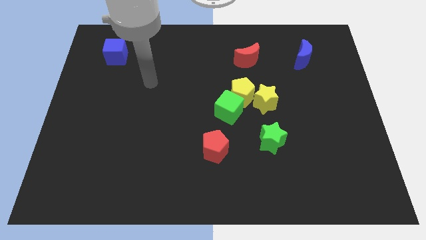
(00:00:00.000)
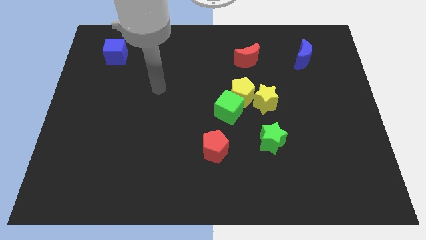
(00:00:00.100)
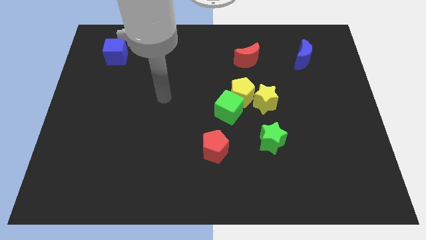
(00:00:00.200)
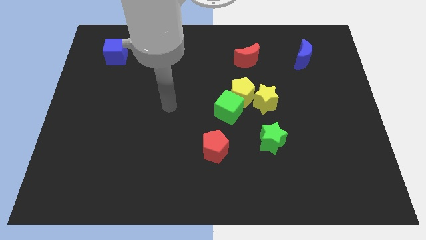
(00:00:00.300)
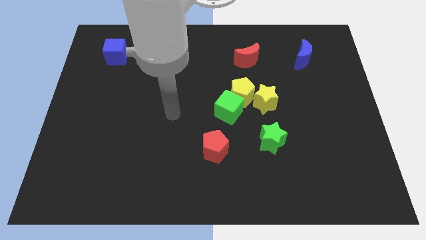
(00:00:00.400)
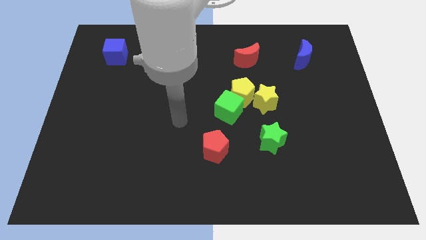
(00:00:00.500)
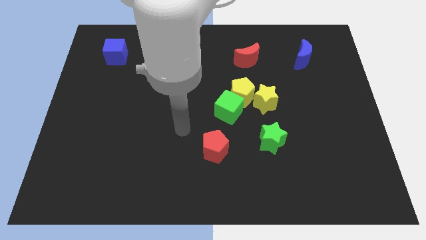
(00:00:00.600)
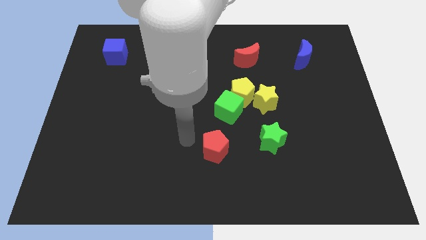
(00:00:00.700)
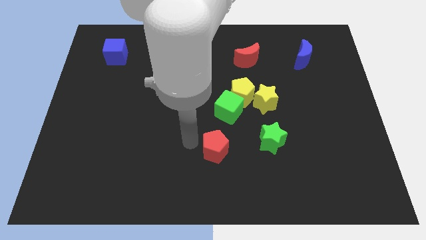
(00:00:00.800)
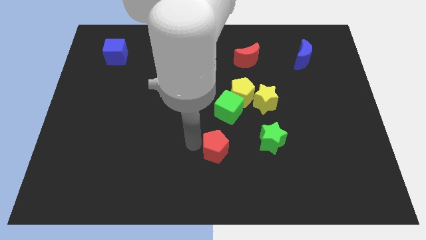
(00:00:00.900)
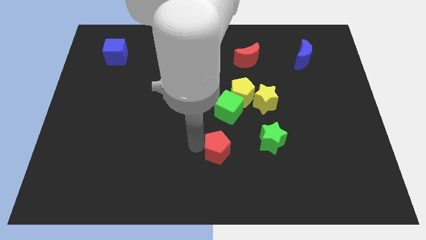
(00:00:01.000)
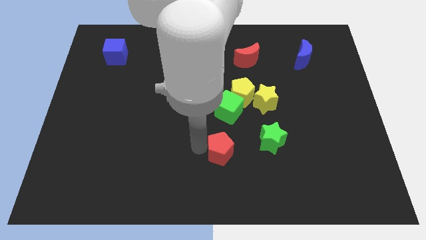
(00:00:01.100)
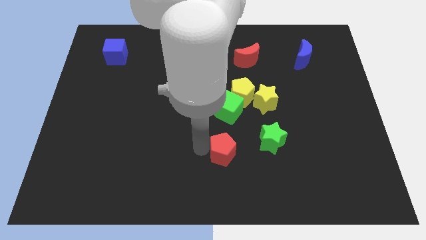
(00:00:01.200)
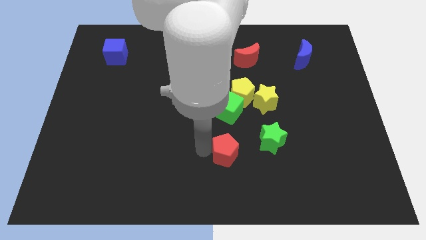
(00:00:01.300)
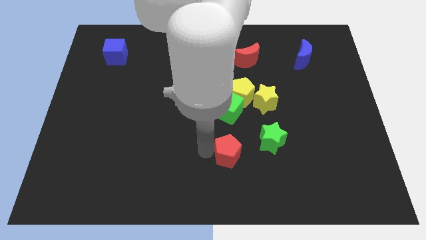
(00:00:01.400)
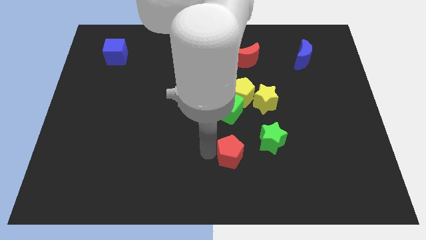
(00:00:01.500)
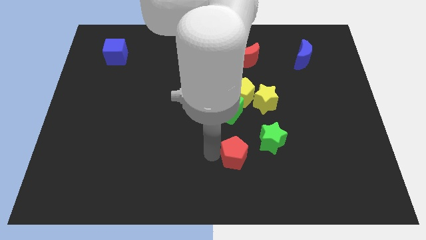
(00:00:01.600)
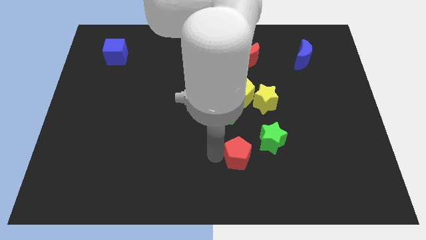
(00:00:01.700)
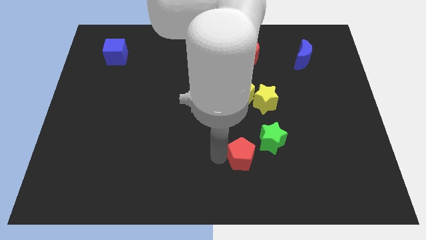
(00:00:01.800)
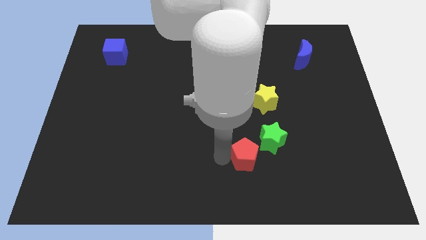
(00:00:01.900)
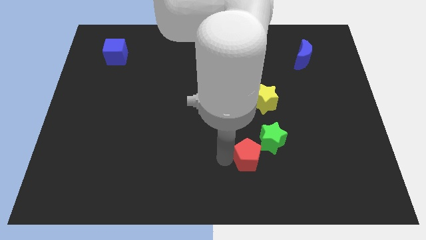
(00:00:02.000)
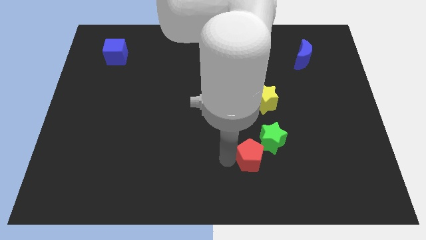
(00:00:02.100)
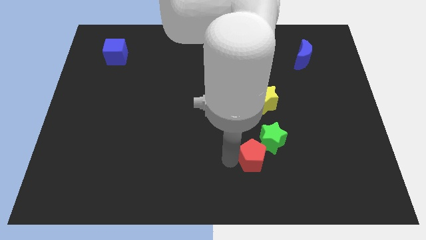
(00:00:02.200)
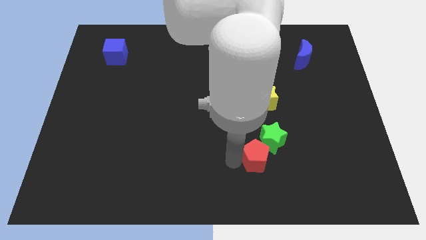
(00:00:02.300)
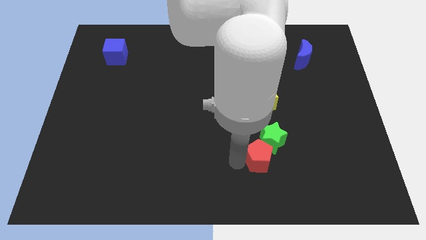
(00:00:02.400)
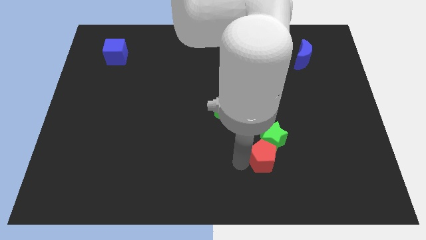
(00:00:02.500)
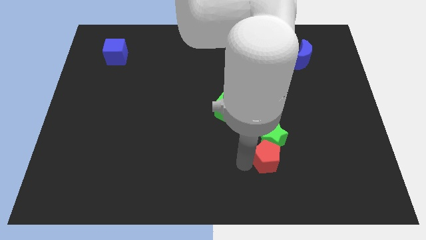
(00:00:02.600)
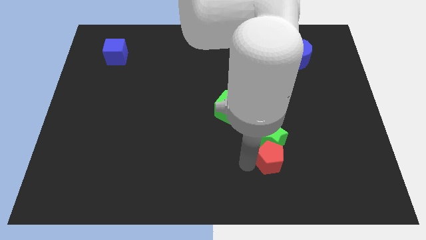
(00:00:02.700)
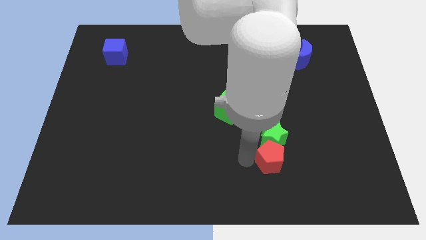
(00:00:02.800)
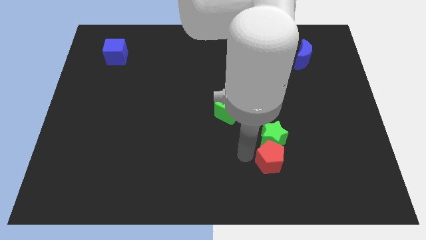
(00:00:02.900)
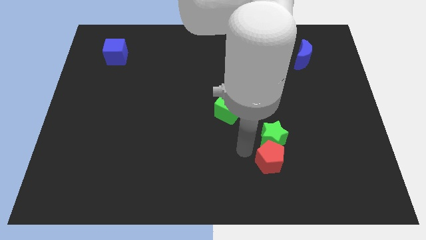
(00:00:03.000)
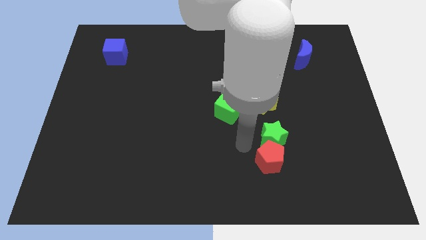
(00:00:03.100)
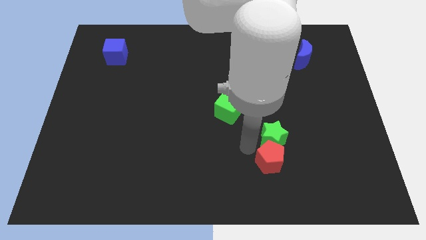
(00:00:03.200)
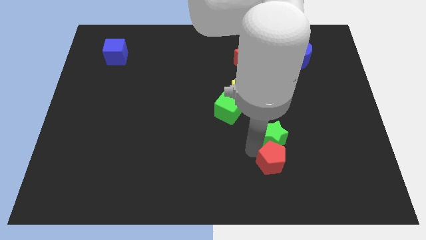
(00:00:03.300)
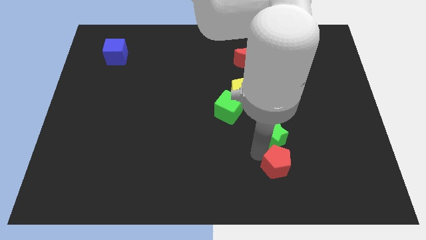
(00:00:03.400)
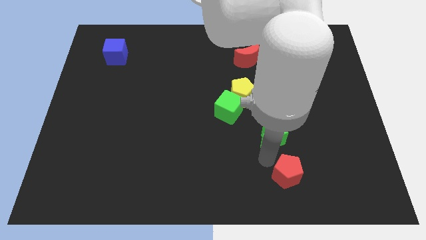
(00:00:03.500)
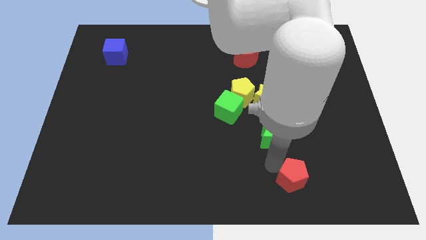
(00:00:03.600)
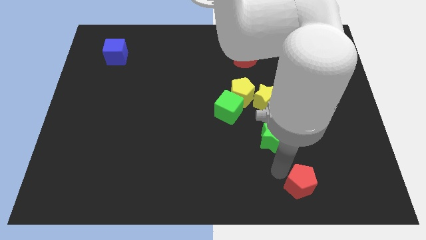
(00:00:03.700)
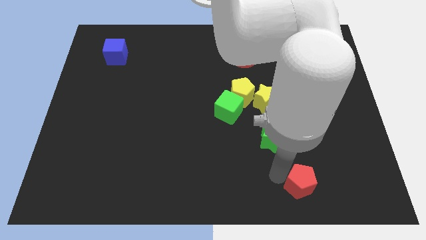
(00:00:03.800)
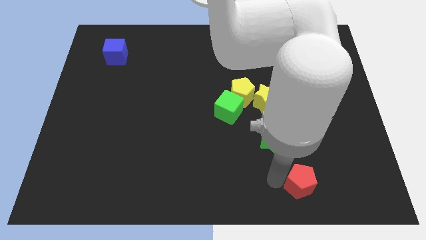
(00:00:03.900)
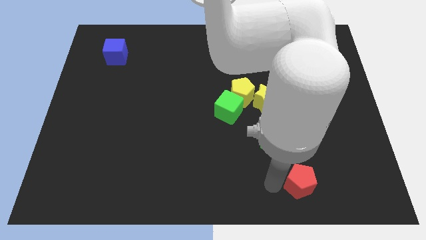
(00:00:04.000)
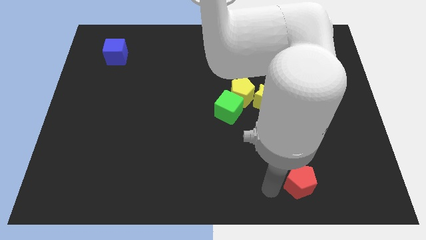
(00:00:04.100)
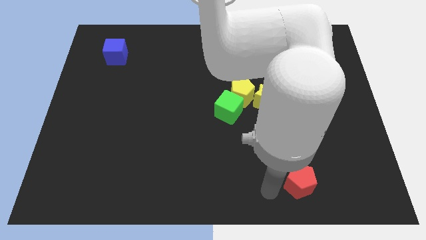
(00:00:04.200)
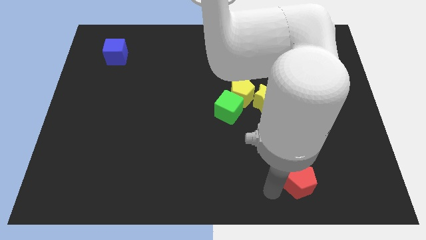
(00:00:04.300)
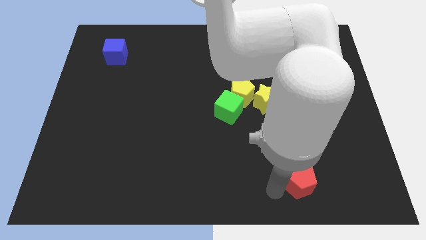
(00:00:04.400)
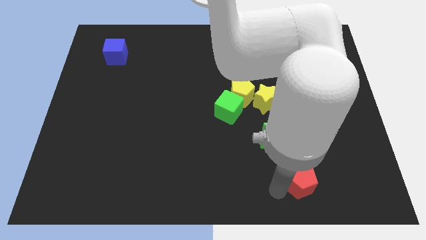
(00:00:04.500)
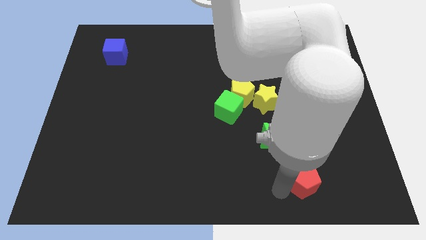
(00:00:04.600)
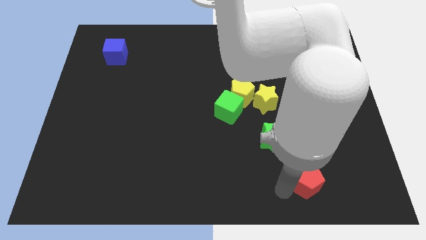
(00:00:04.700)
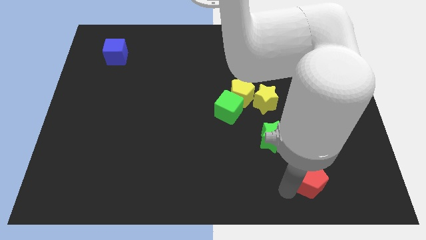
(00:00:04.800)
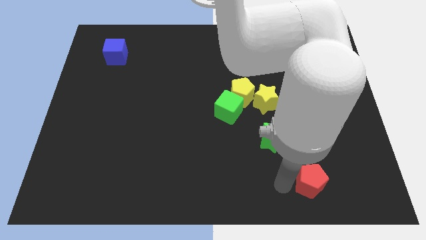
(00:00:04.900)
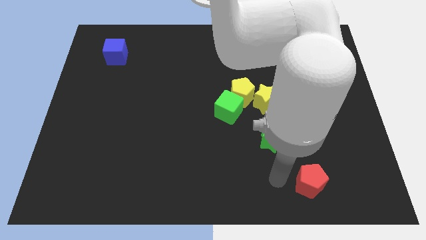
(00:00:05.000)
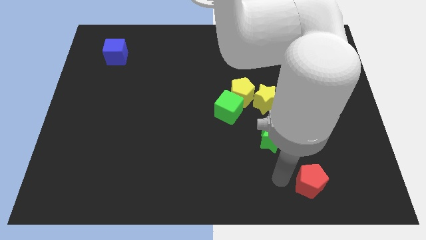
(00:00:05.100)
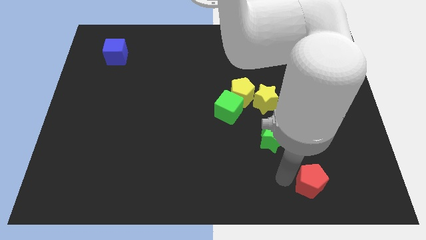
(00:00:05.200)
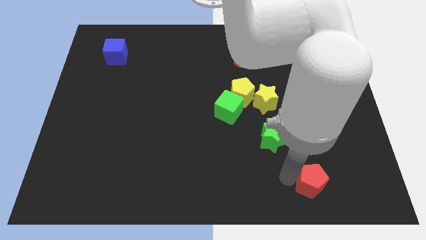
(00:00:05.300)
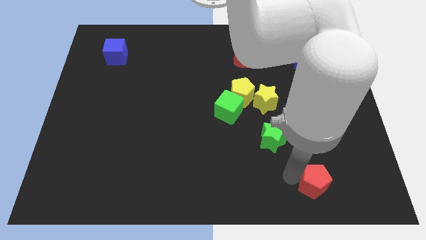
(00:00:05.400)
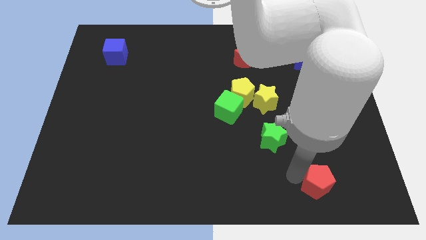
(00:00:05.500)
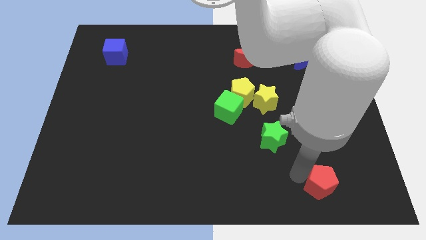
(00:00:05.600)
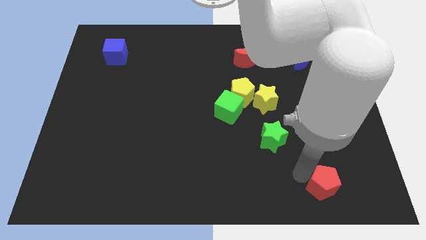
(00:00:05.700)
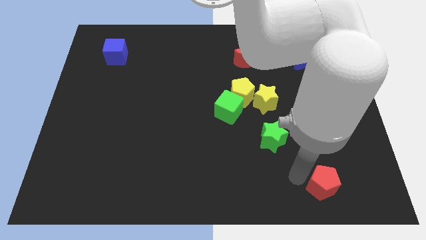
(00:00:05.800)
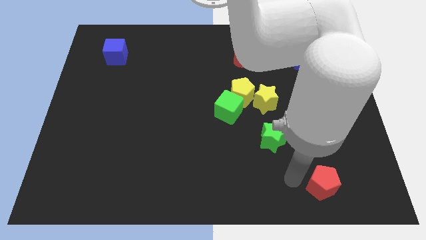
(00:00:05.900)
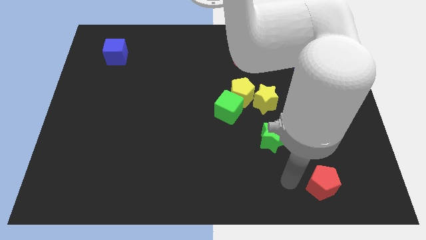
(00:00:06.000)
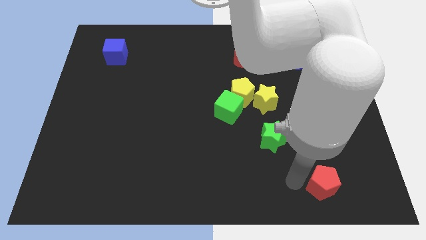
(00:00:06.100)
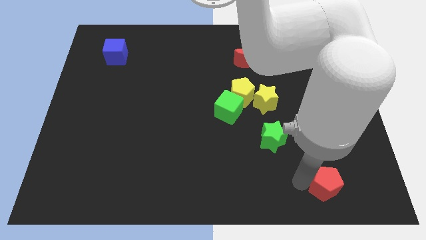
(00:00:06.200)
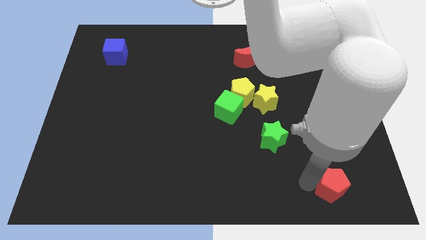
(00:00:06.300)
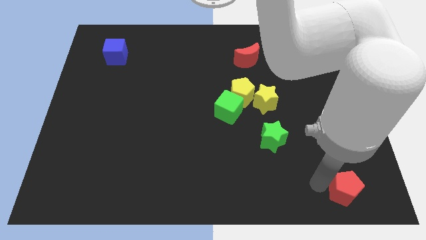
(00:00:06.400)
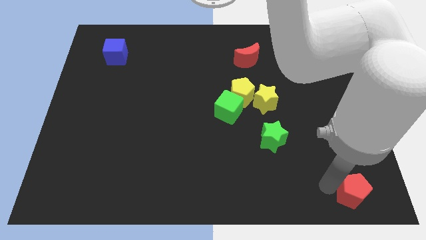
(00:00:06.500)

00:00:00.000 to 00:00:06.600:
slide the red pentagon to the bottom right of the board

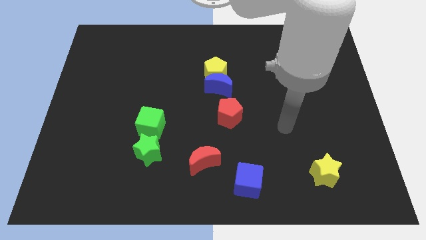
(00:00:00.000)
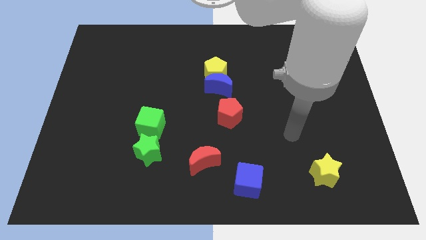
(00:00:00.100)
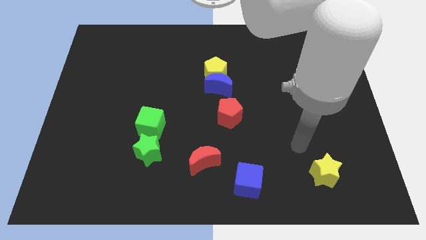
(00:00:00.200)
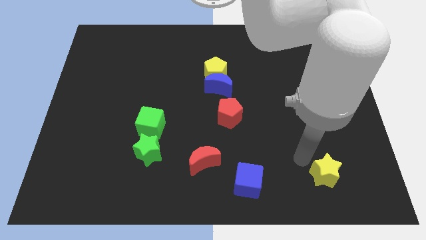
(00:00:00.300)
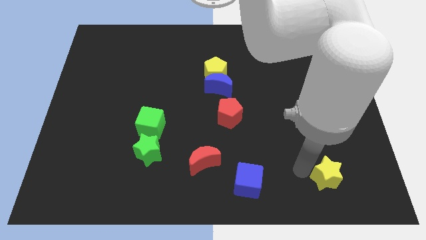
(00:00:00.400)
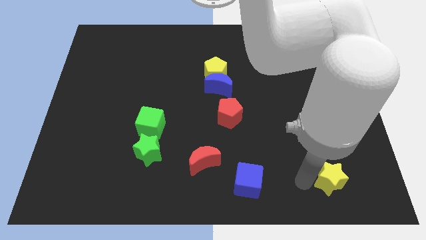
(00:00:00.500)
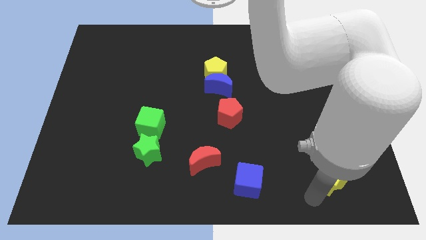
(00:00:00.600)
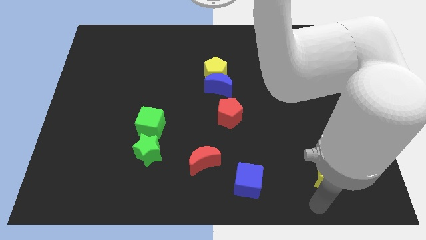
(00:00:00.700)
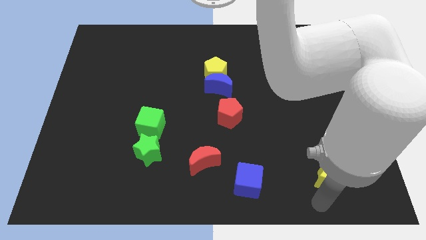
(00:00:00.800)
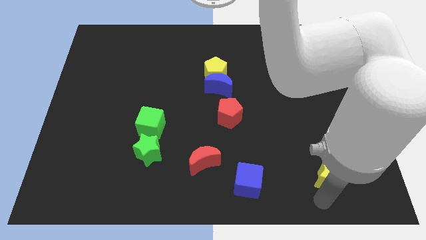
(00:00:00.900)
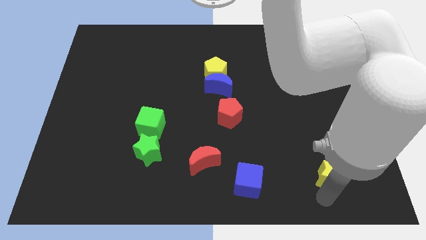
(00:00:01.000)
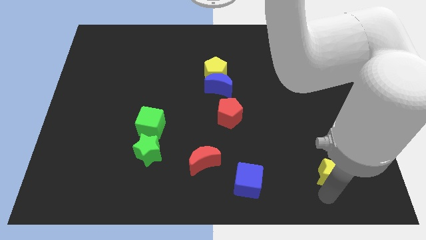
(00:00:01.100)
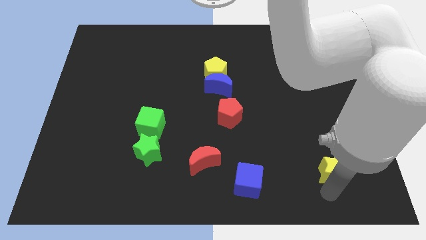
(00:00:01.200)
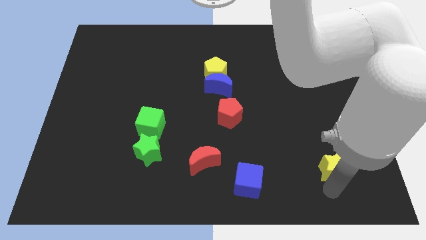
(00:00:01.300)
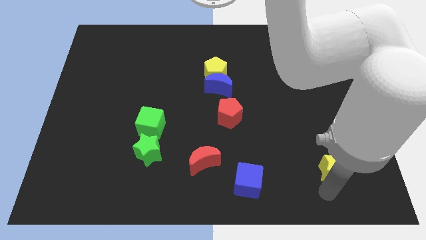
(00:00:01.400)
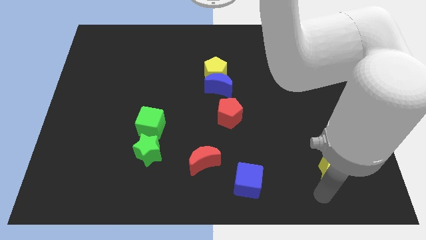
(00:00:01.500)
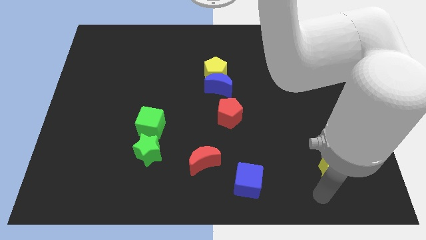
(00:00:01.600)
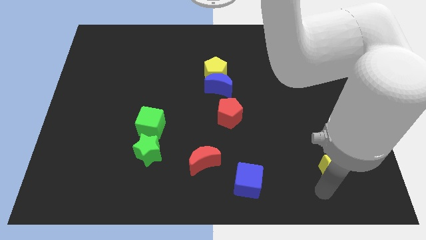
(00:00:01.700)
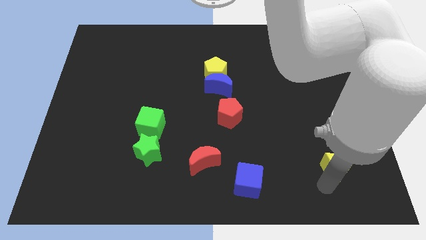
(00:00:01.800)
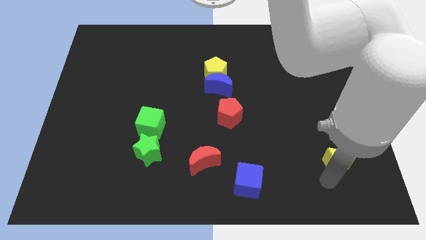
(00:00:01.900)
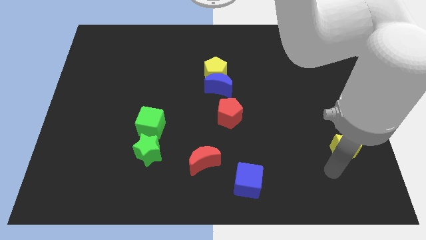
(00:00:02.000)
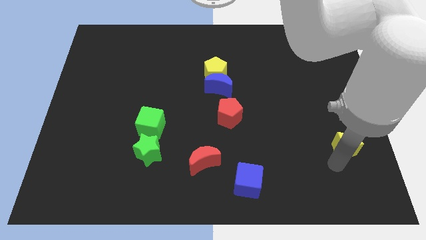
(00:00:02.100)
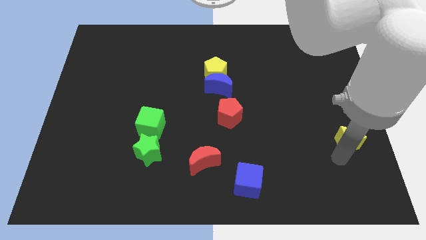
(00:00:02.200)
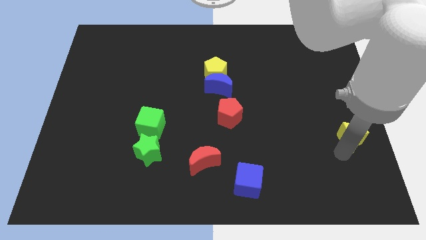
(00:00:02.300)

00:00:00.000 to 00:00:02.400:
slide the yellow star to the right side of the board
